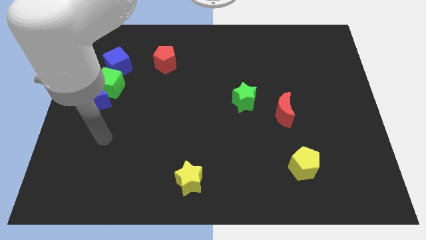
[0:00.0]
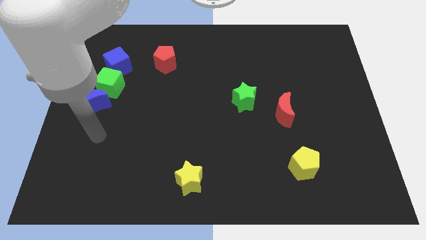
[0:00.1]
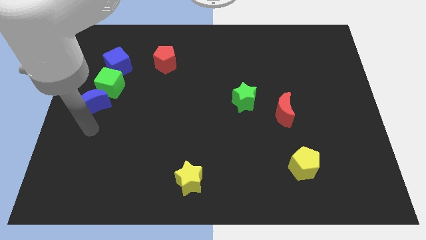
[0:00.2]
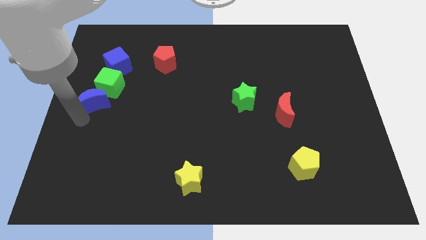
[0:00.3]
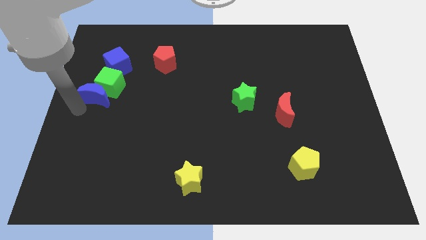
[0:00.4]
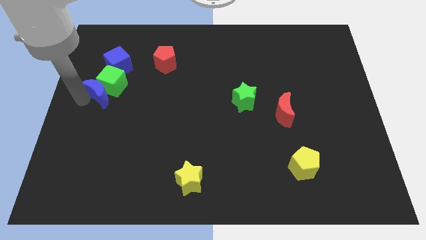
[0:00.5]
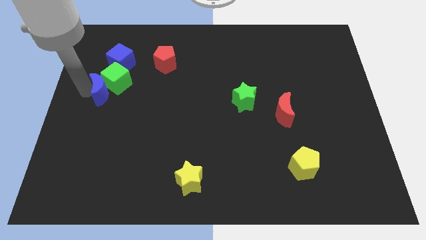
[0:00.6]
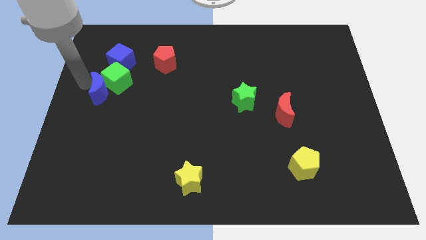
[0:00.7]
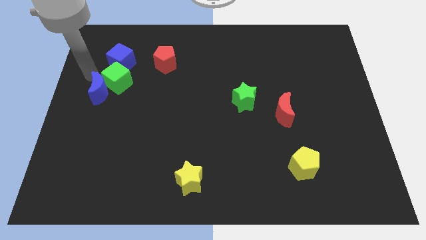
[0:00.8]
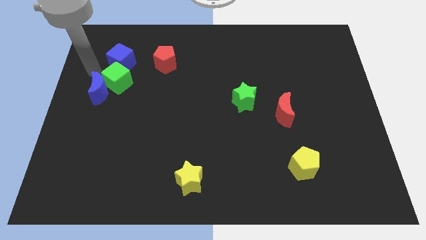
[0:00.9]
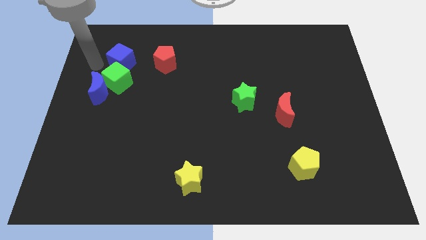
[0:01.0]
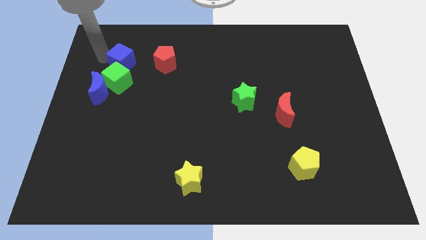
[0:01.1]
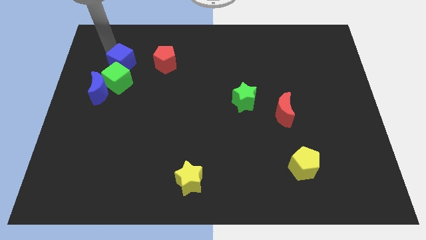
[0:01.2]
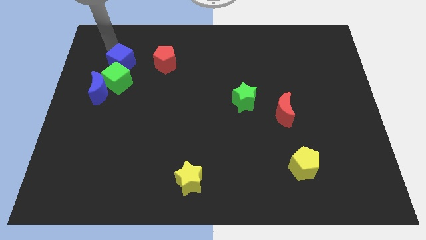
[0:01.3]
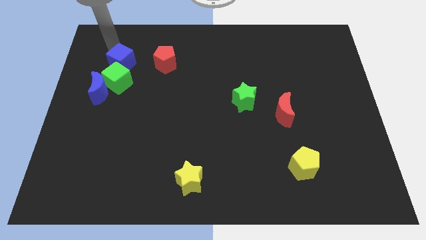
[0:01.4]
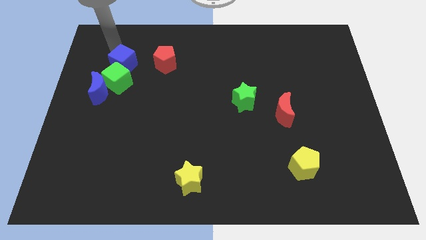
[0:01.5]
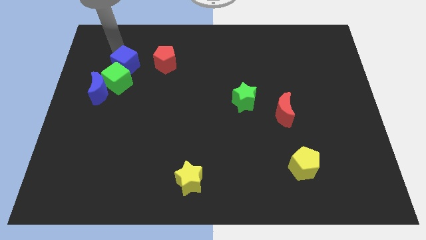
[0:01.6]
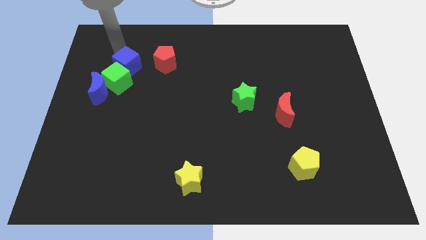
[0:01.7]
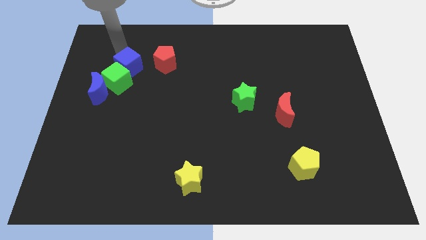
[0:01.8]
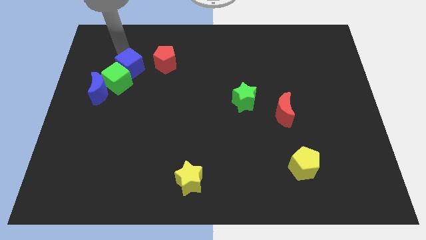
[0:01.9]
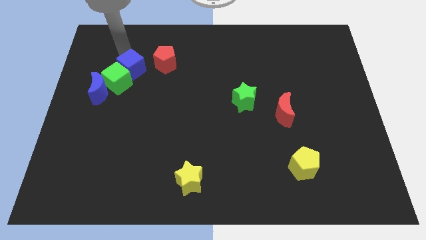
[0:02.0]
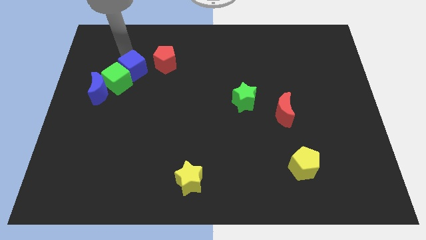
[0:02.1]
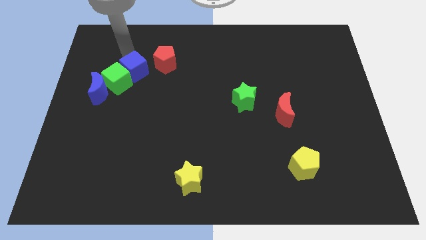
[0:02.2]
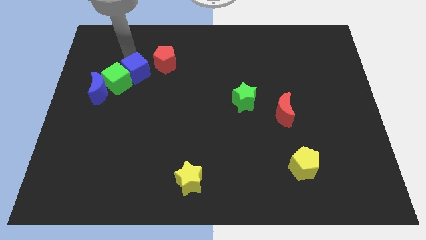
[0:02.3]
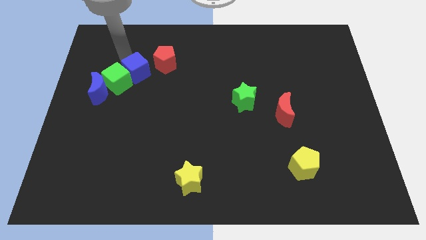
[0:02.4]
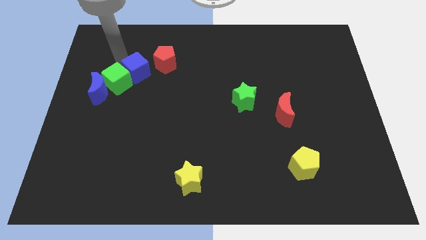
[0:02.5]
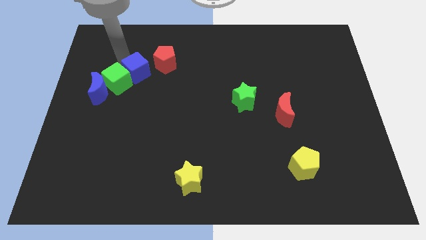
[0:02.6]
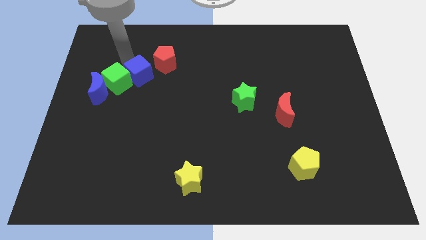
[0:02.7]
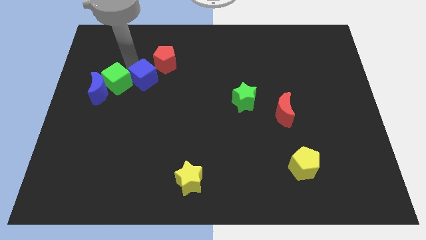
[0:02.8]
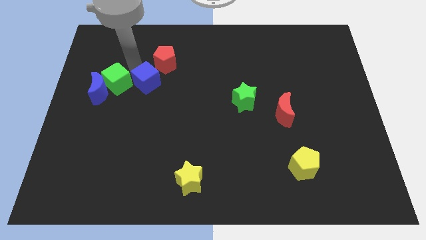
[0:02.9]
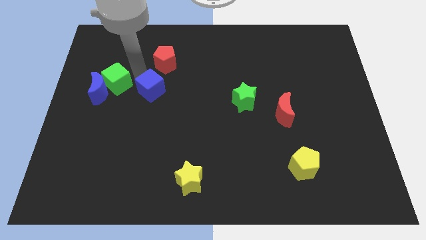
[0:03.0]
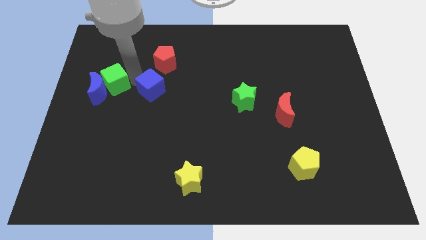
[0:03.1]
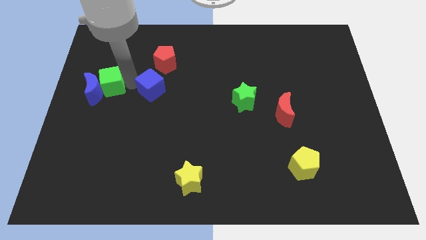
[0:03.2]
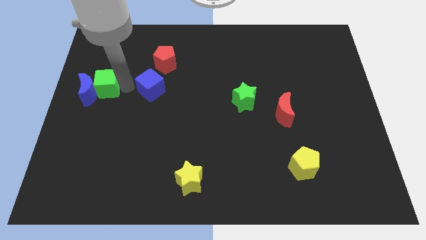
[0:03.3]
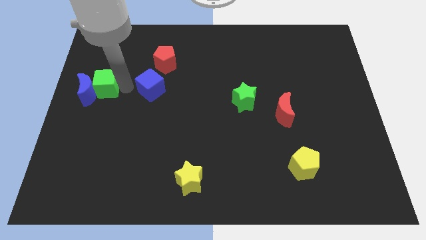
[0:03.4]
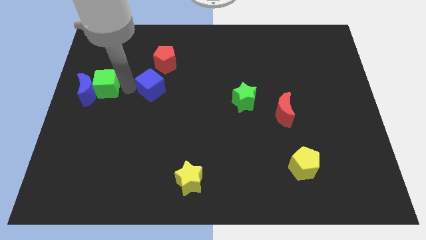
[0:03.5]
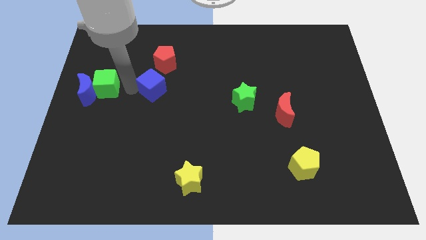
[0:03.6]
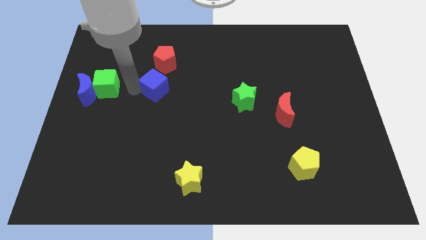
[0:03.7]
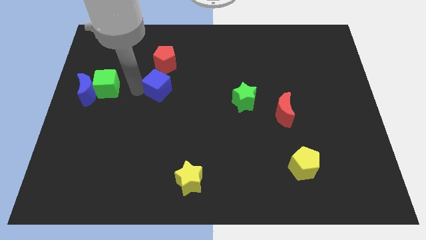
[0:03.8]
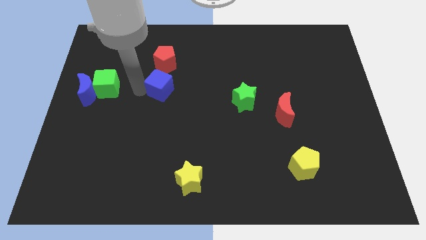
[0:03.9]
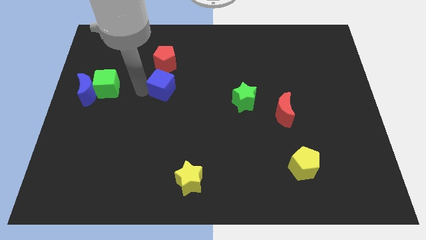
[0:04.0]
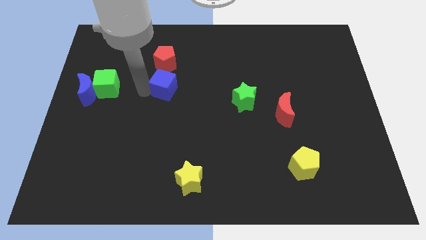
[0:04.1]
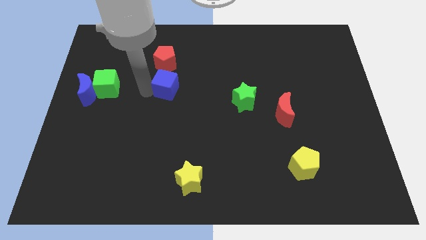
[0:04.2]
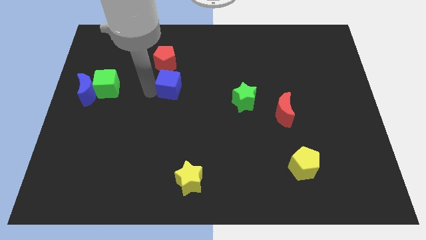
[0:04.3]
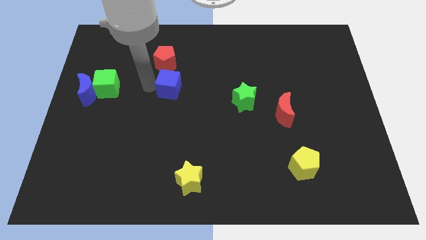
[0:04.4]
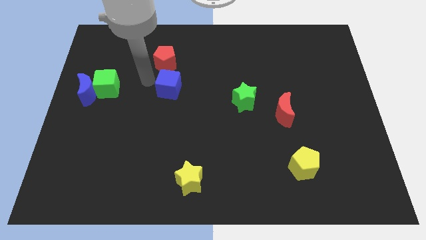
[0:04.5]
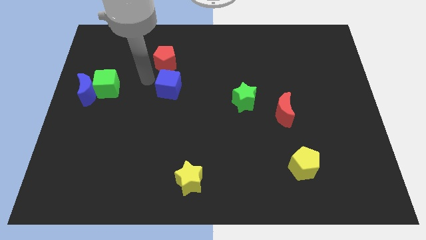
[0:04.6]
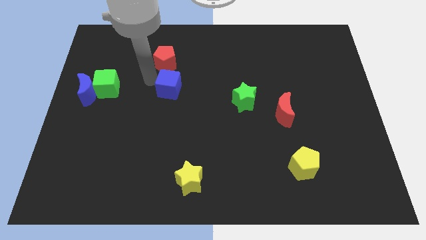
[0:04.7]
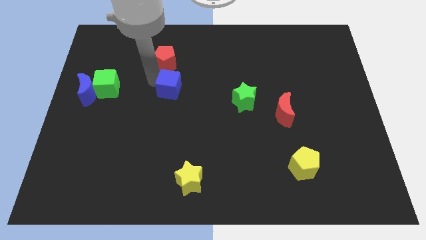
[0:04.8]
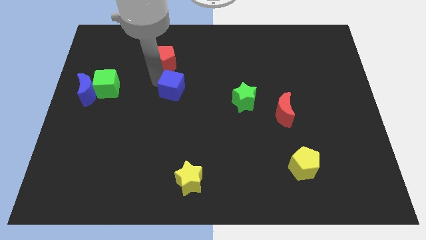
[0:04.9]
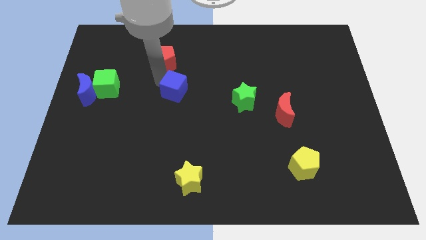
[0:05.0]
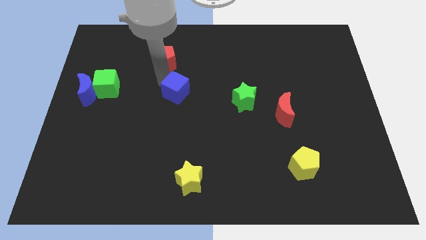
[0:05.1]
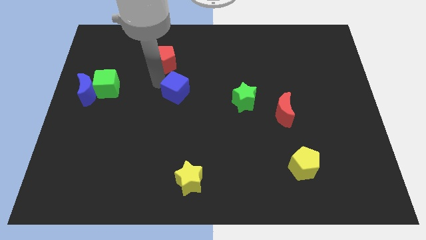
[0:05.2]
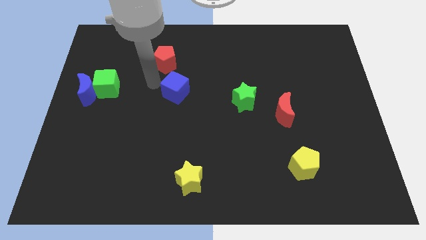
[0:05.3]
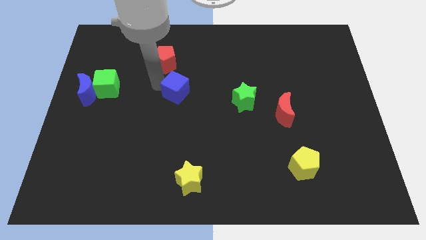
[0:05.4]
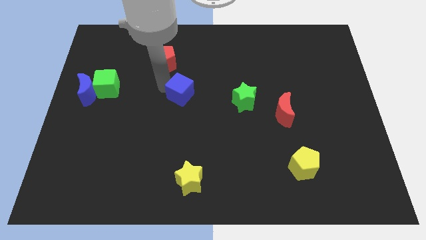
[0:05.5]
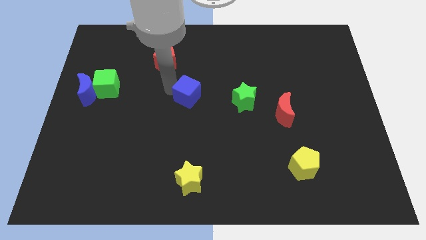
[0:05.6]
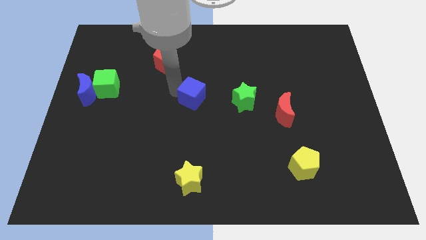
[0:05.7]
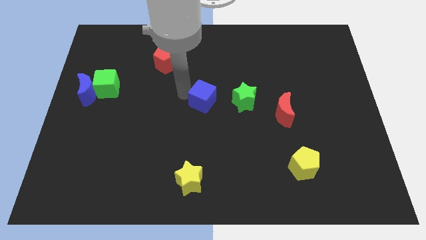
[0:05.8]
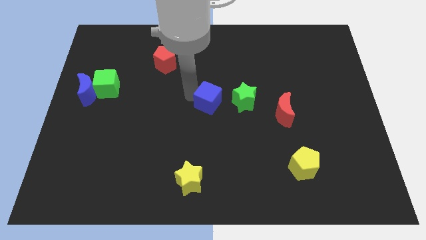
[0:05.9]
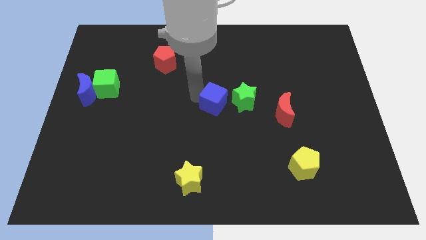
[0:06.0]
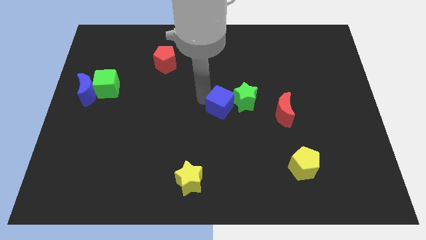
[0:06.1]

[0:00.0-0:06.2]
move the blue cube to the left side of the red moon
